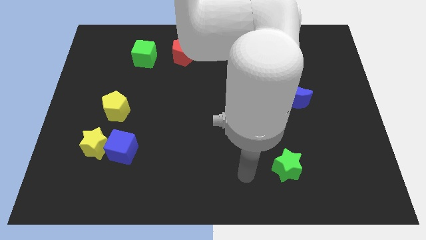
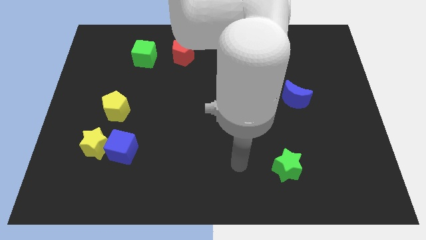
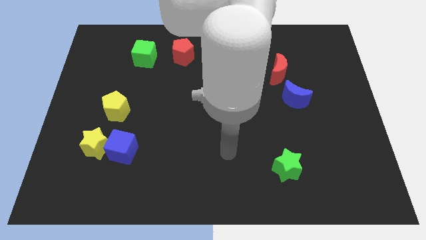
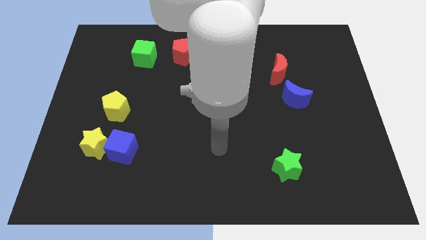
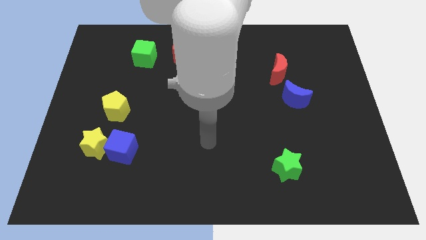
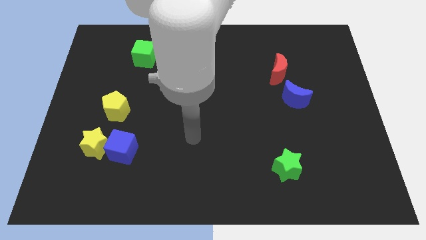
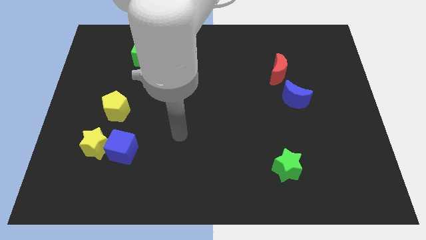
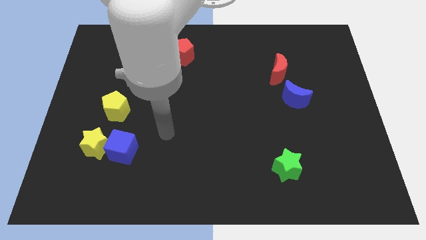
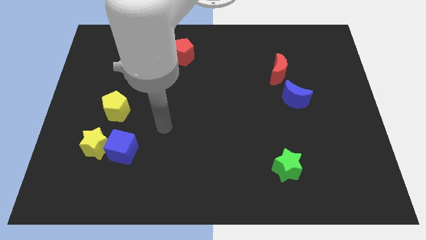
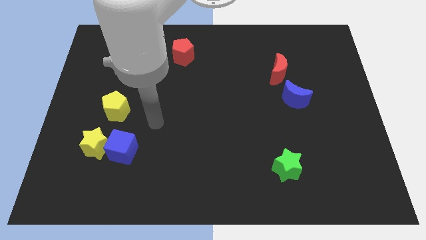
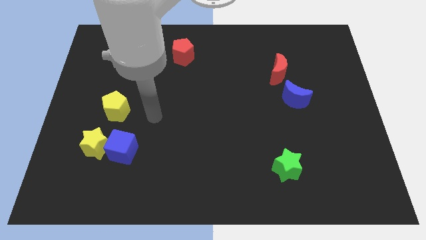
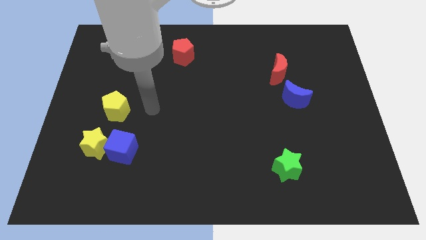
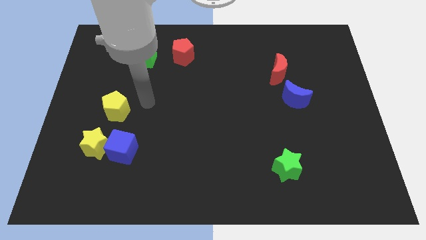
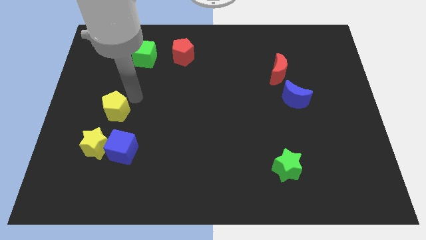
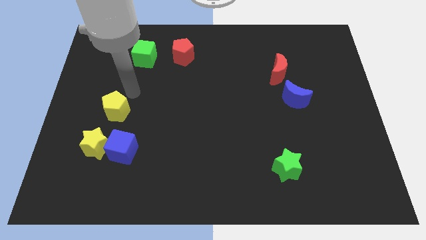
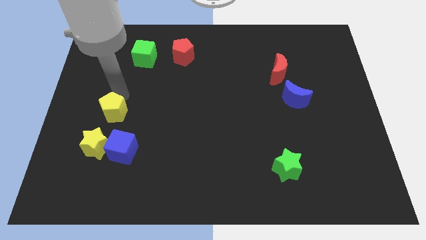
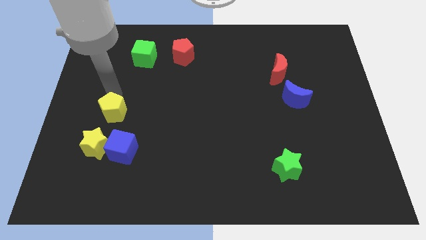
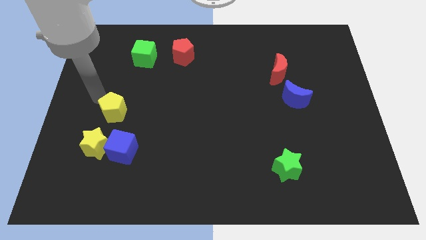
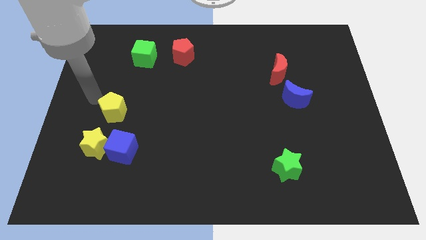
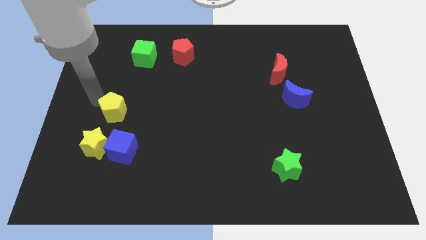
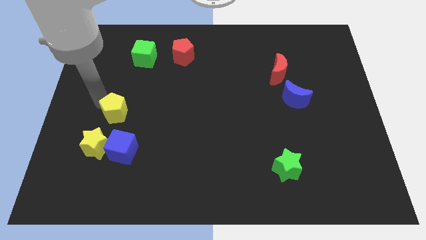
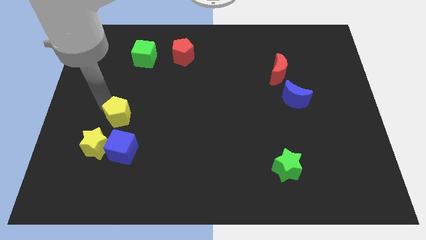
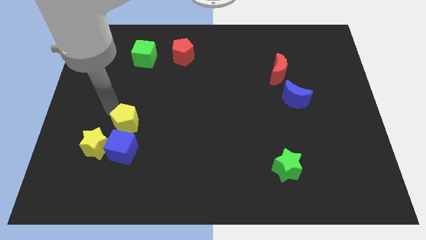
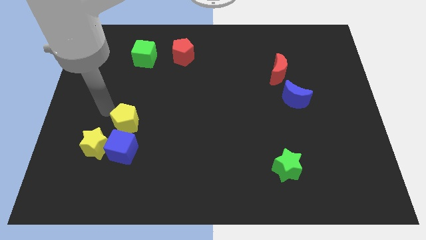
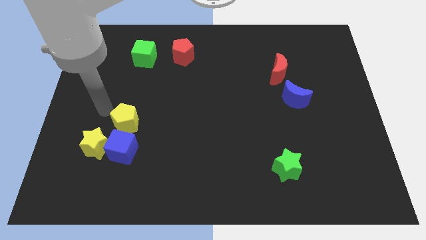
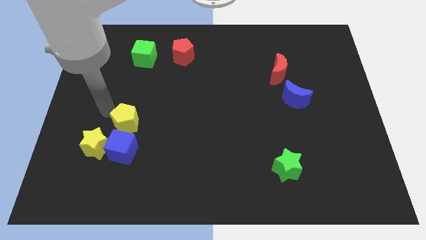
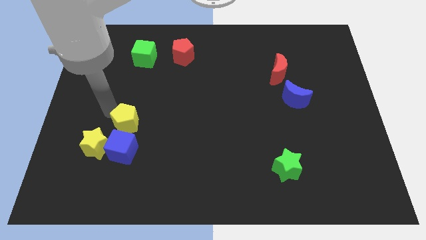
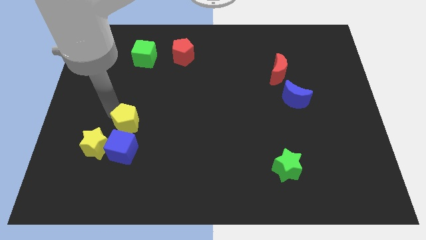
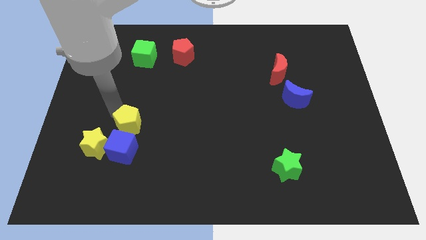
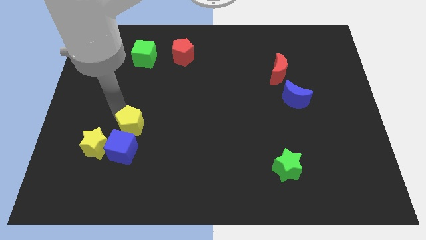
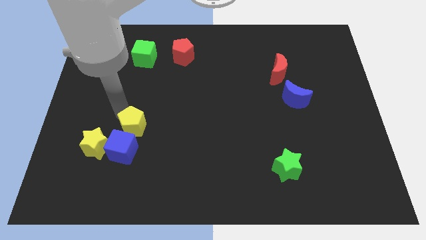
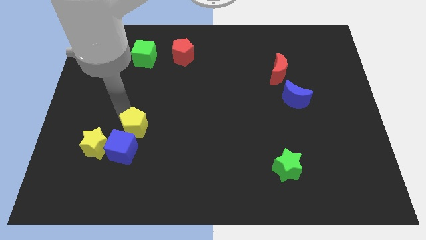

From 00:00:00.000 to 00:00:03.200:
slide the yellow pentagon a little downwards and right diagonally

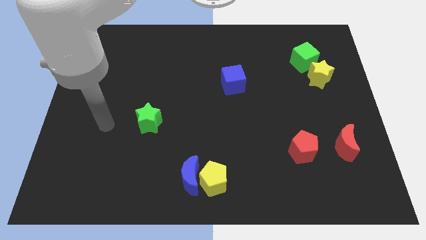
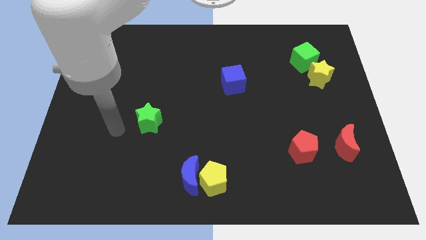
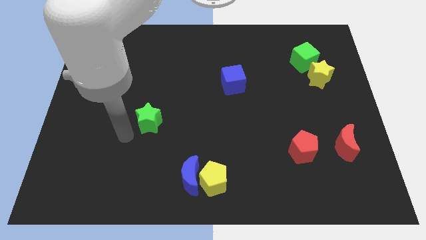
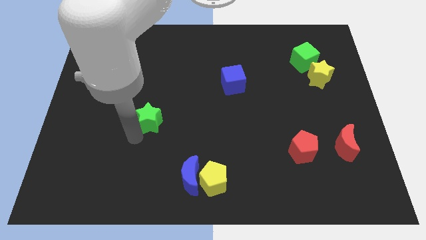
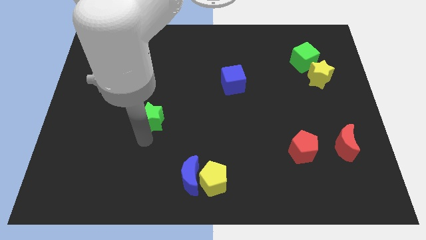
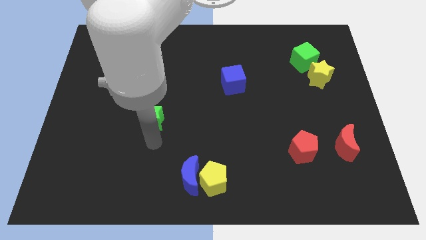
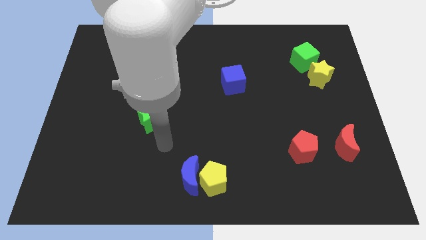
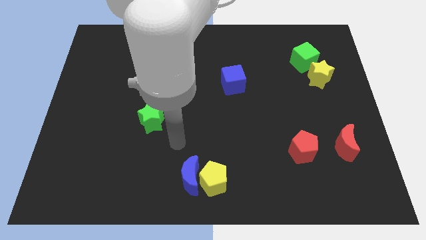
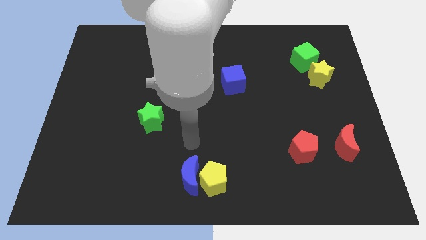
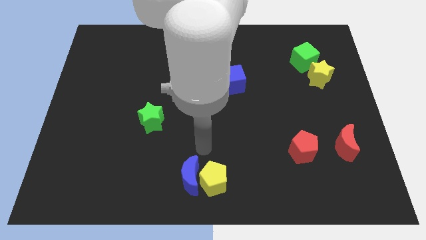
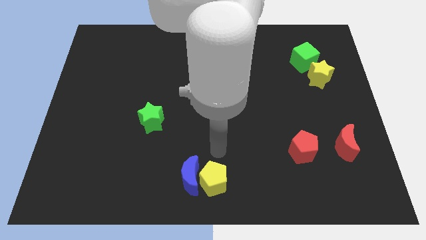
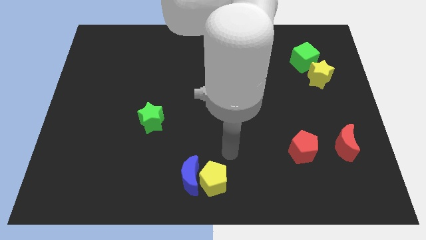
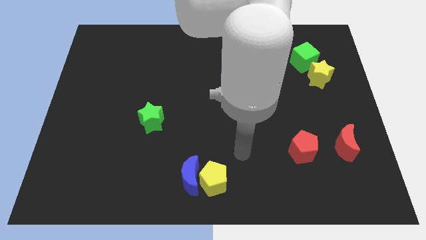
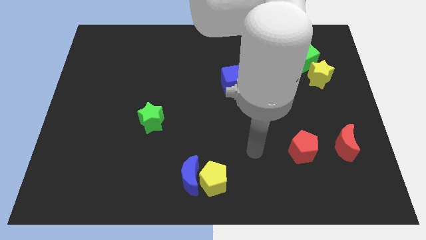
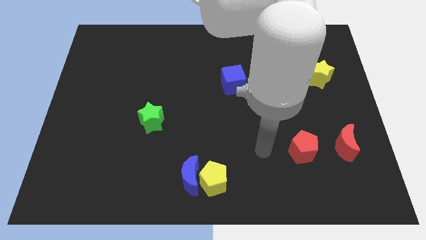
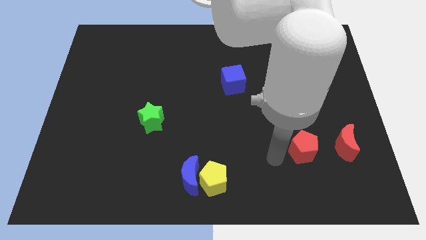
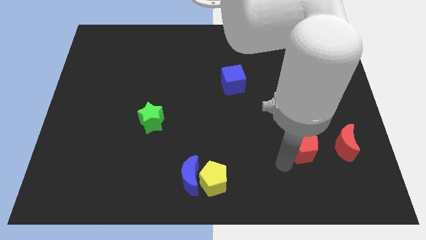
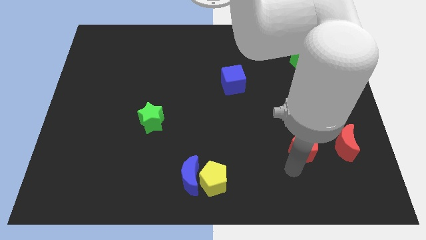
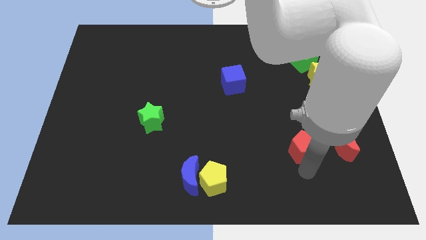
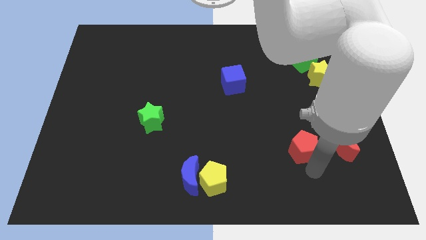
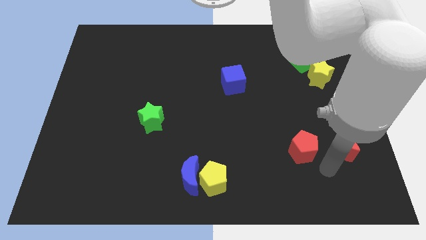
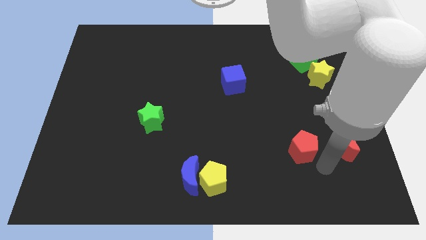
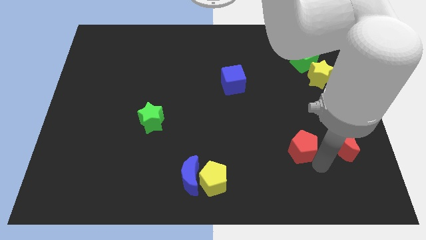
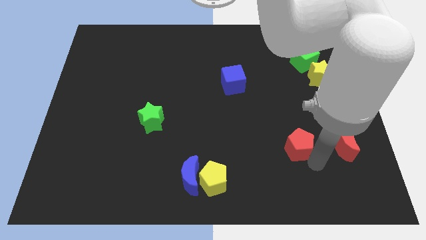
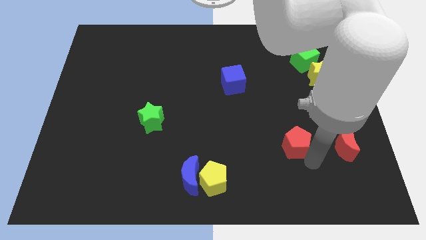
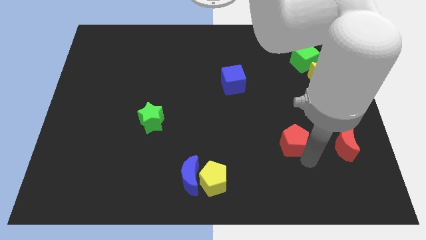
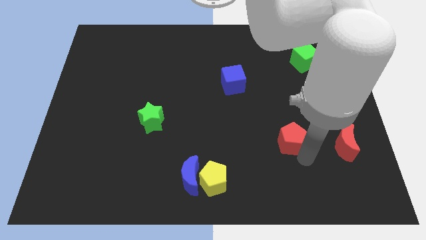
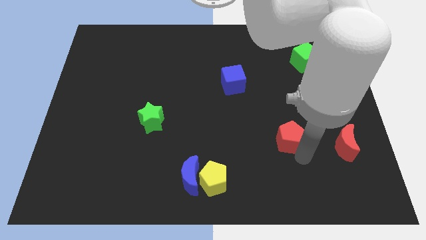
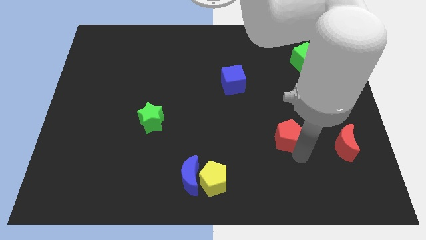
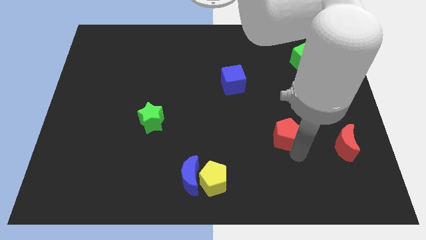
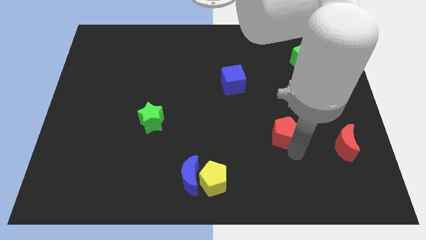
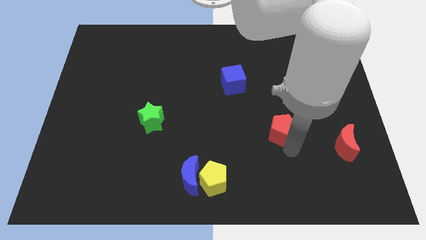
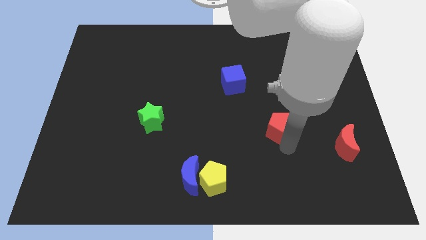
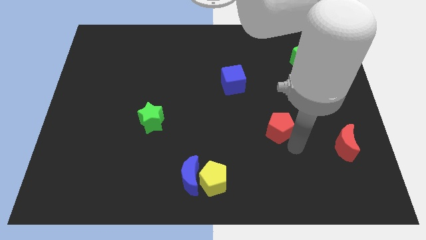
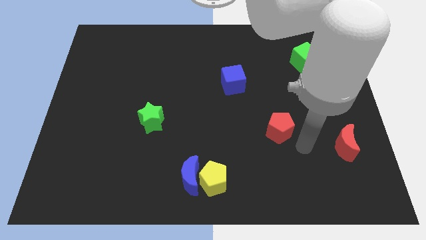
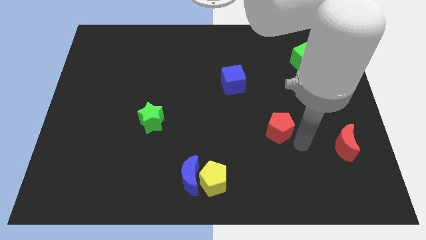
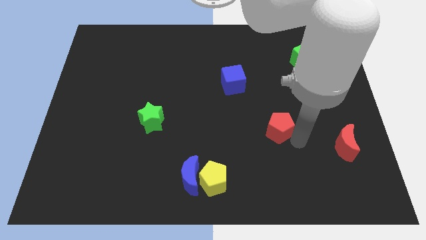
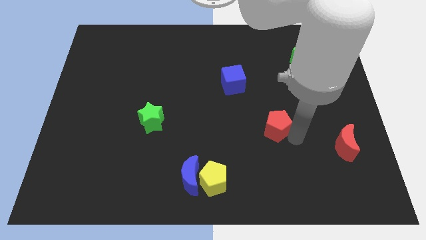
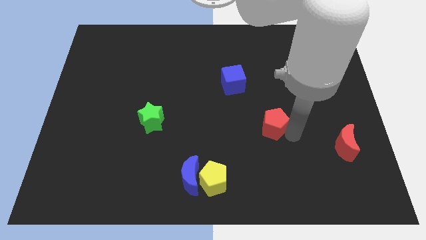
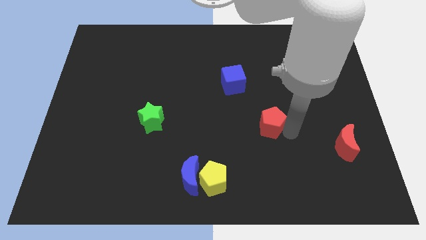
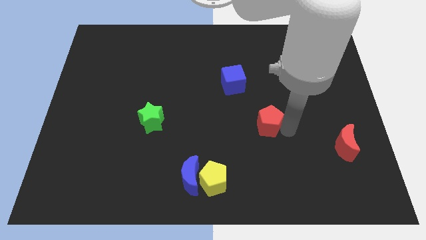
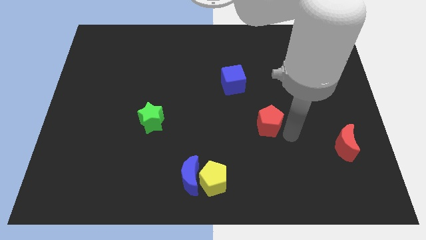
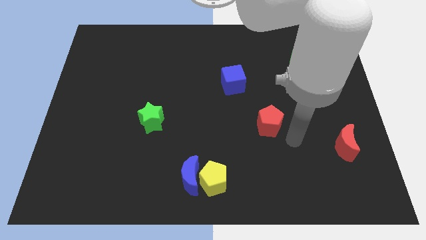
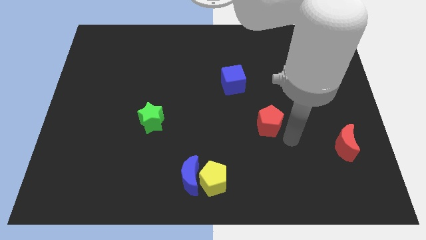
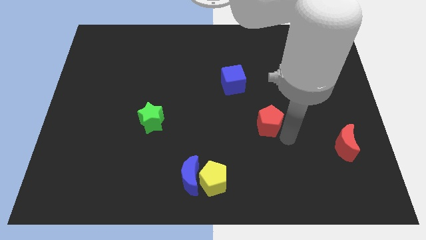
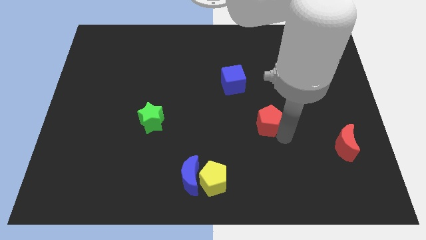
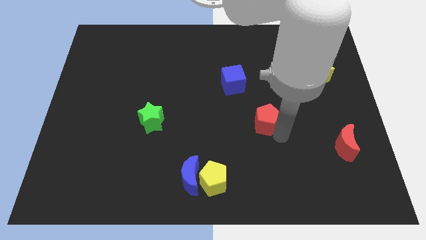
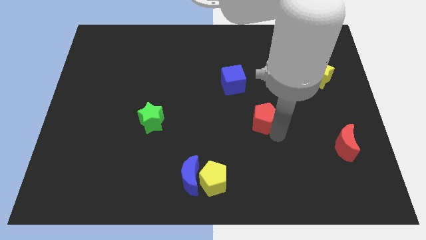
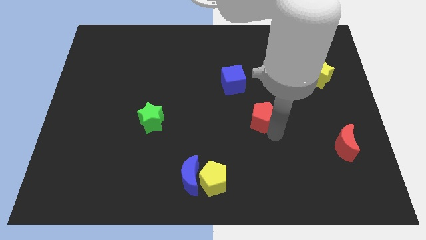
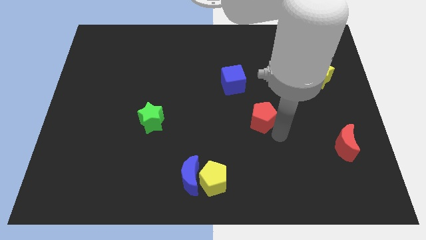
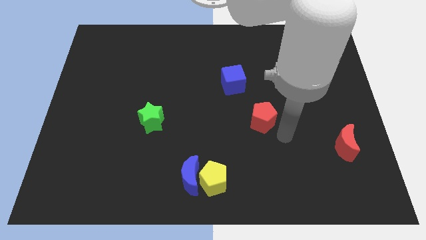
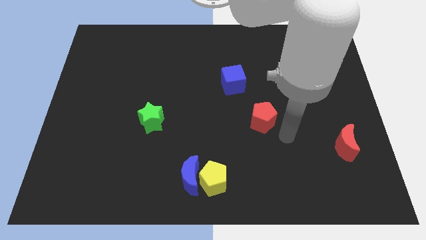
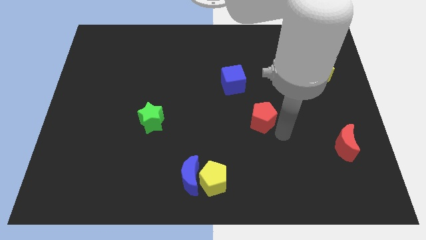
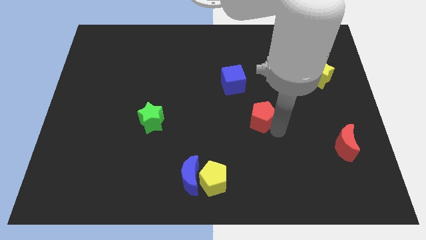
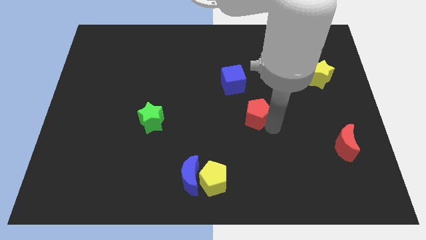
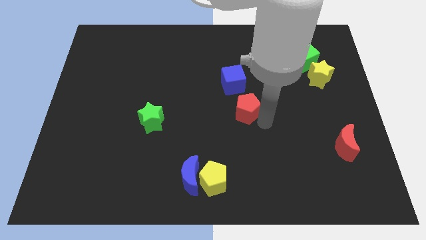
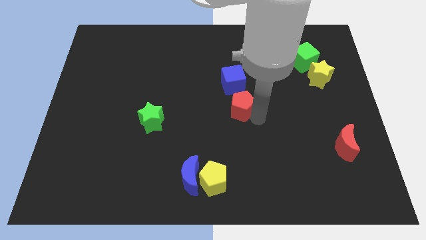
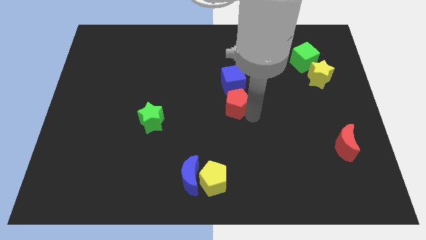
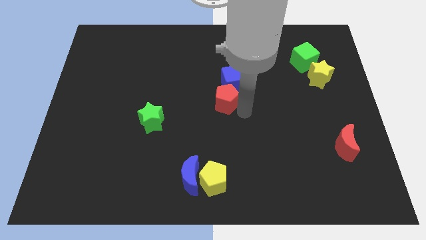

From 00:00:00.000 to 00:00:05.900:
push the red pentagon up and left
